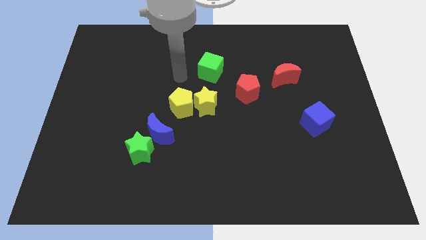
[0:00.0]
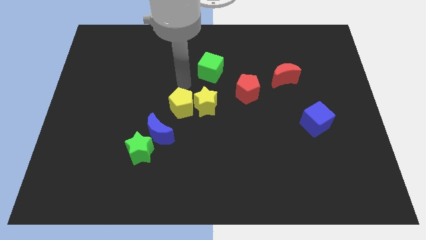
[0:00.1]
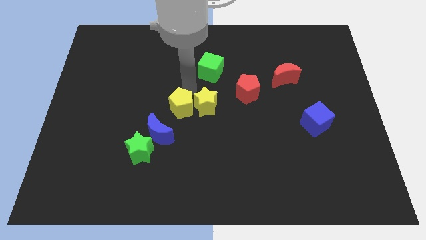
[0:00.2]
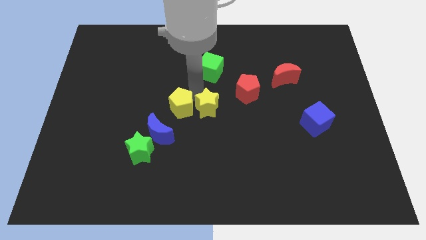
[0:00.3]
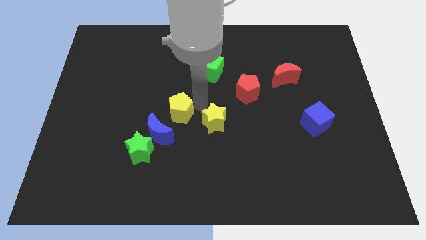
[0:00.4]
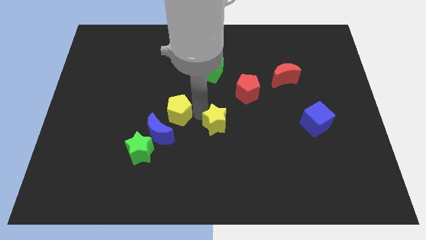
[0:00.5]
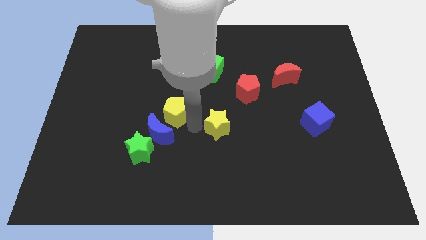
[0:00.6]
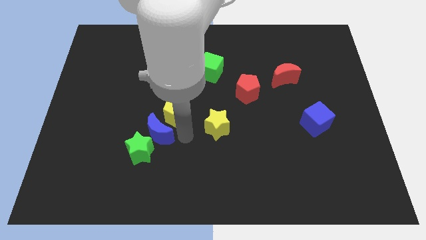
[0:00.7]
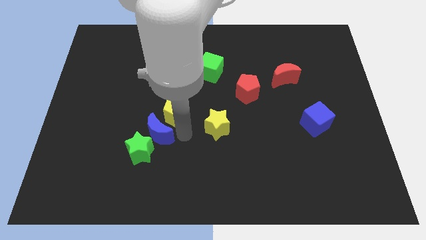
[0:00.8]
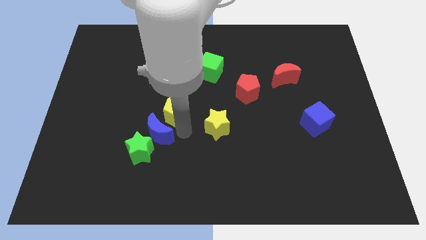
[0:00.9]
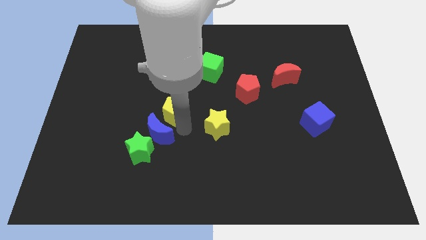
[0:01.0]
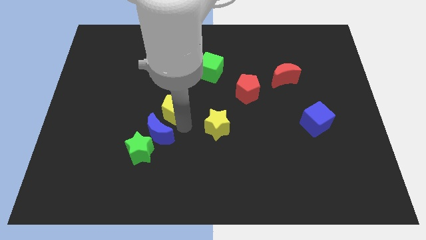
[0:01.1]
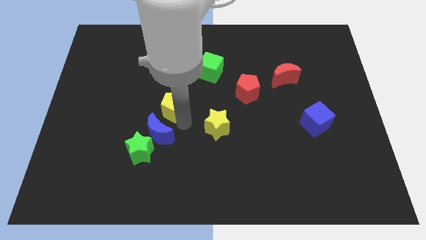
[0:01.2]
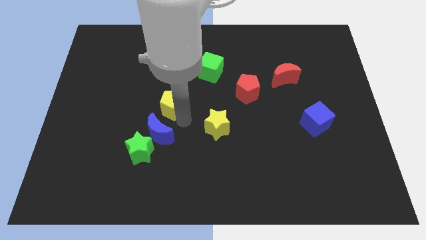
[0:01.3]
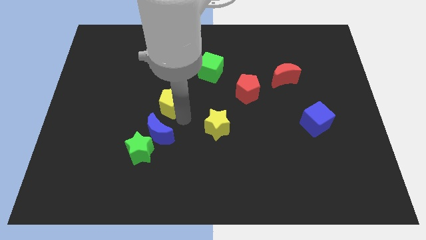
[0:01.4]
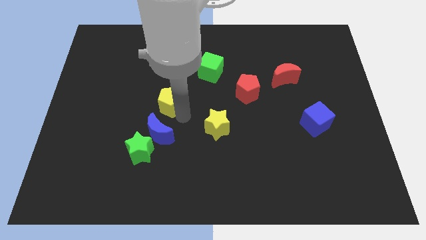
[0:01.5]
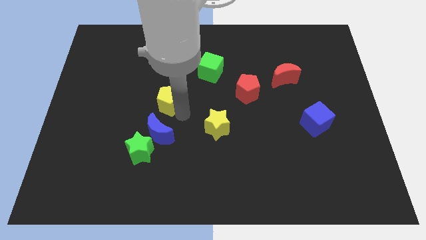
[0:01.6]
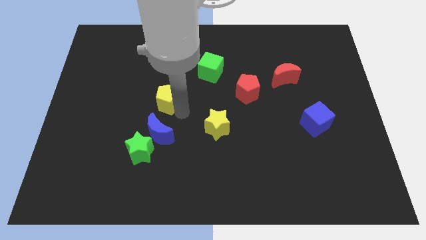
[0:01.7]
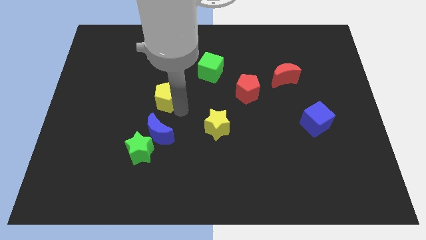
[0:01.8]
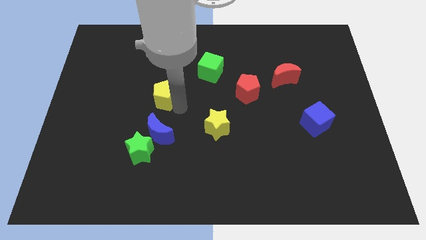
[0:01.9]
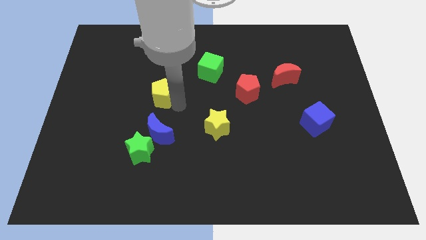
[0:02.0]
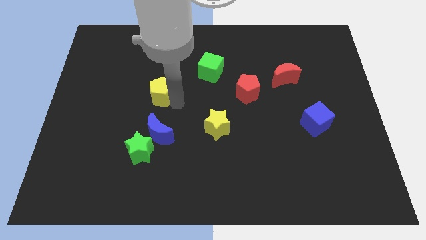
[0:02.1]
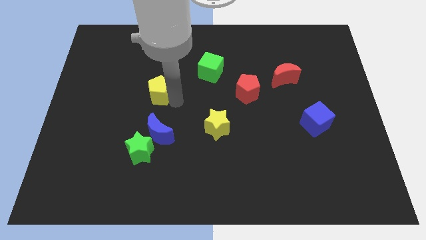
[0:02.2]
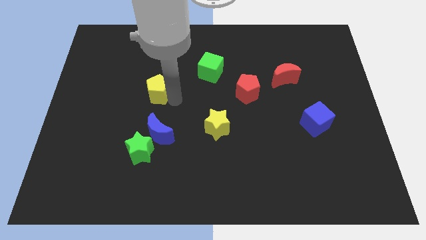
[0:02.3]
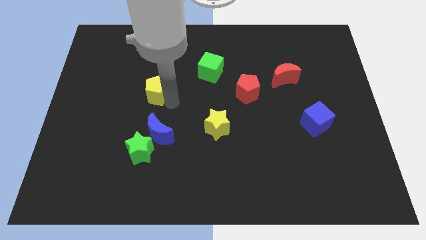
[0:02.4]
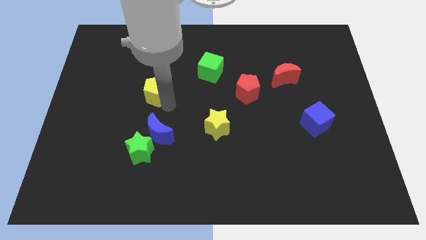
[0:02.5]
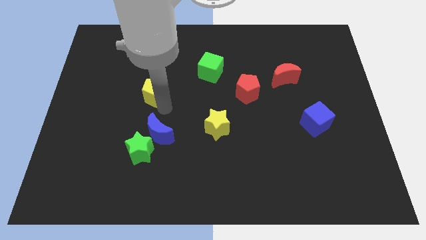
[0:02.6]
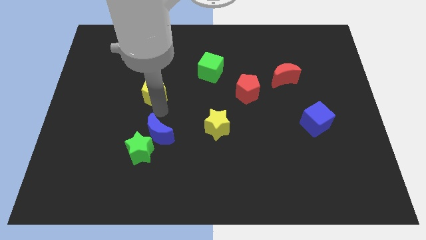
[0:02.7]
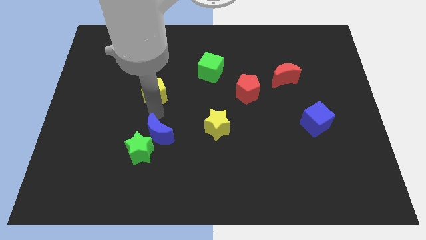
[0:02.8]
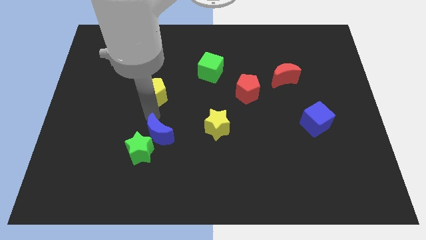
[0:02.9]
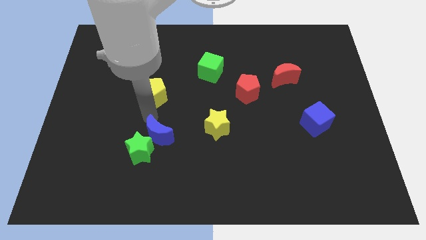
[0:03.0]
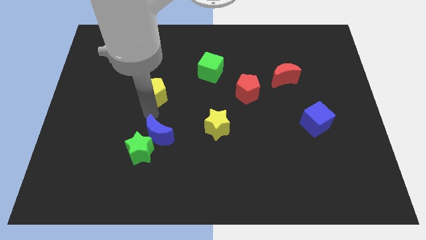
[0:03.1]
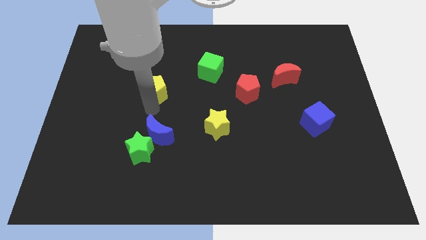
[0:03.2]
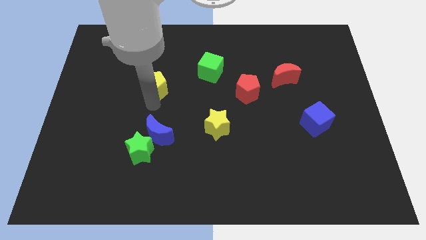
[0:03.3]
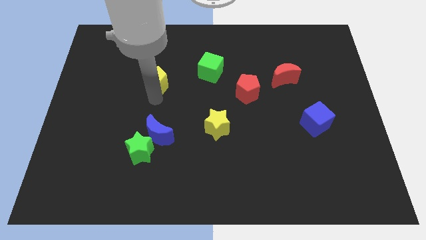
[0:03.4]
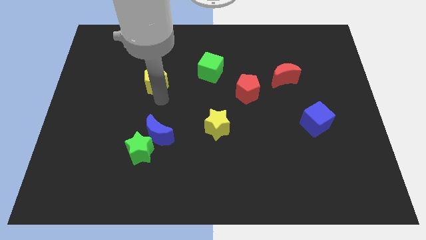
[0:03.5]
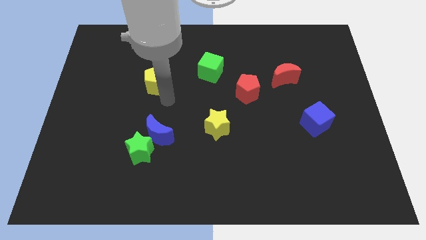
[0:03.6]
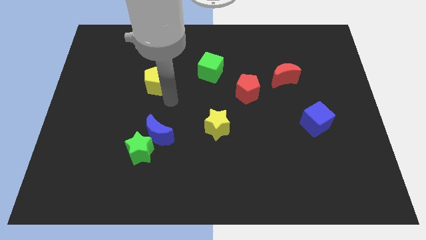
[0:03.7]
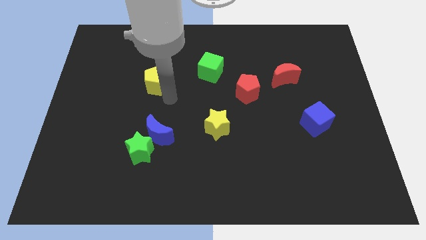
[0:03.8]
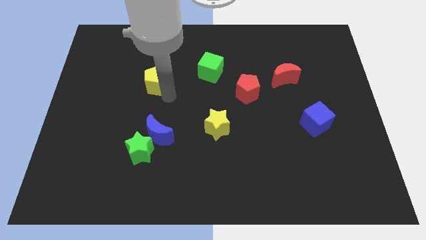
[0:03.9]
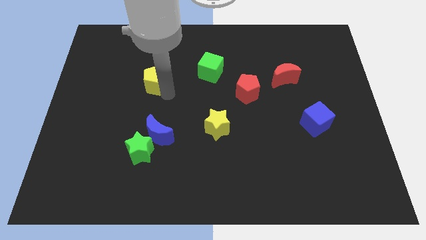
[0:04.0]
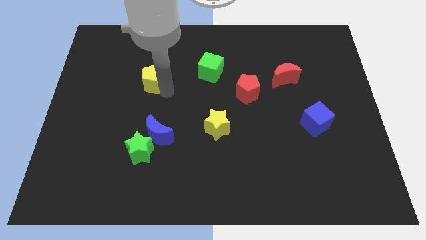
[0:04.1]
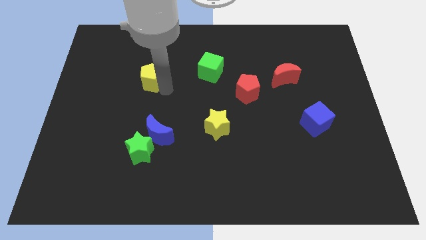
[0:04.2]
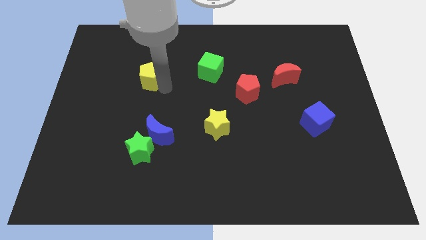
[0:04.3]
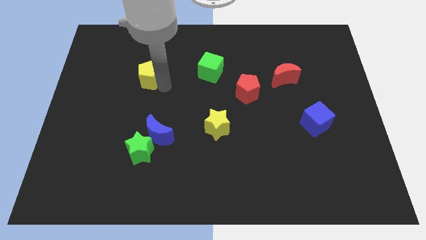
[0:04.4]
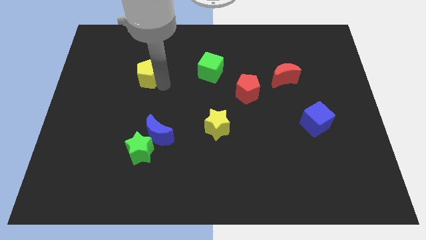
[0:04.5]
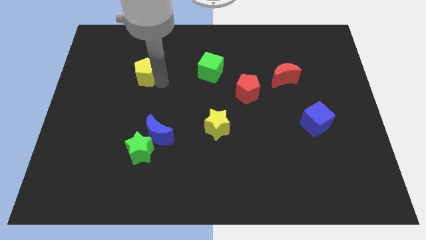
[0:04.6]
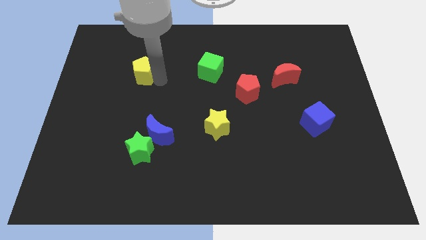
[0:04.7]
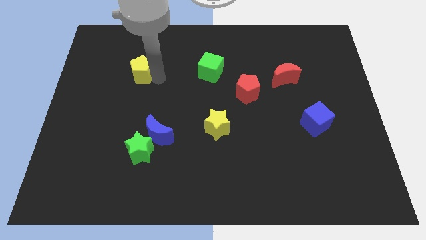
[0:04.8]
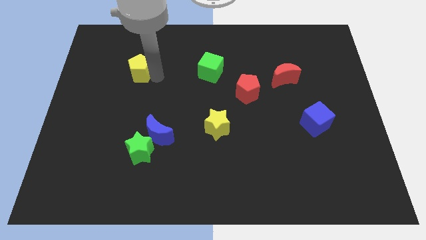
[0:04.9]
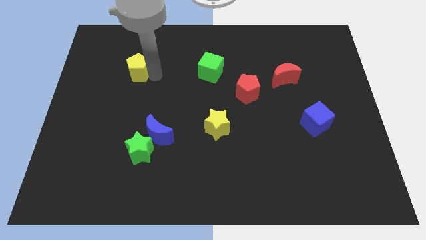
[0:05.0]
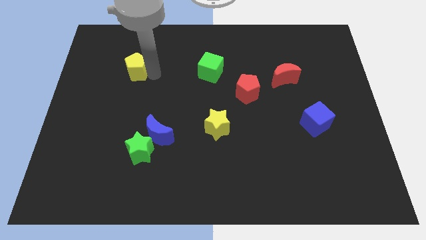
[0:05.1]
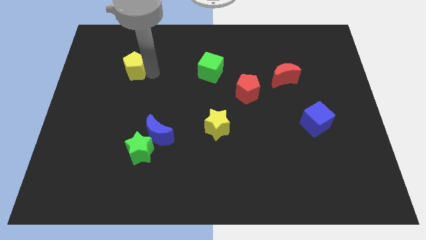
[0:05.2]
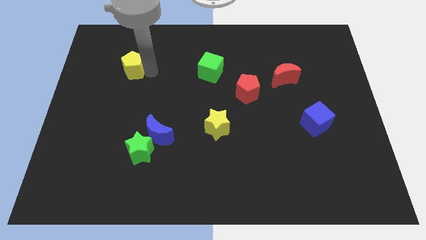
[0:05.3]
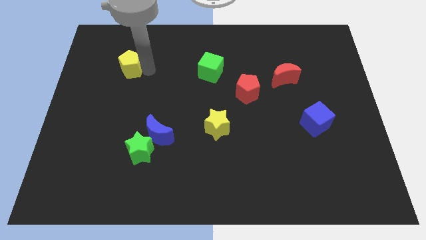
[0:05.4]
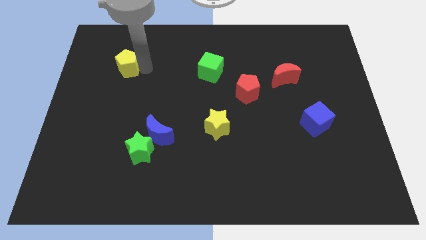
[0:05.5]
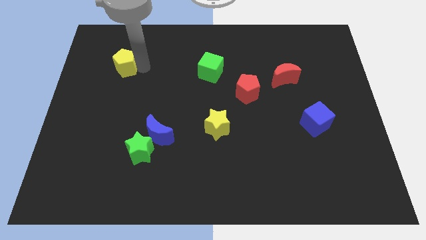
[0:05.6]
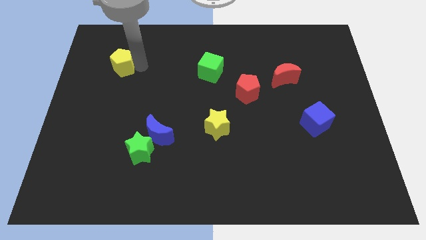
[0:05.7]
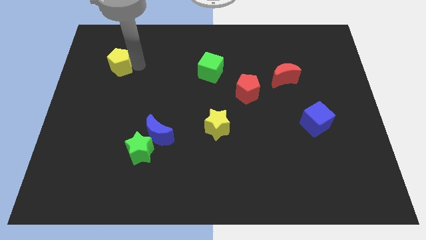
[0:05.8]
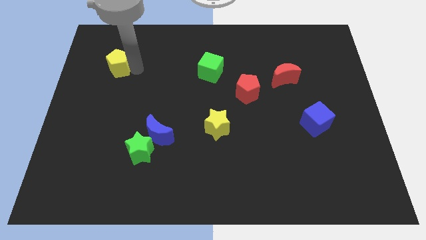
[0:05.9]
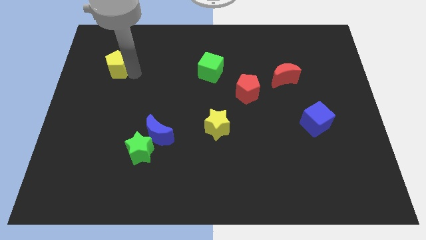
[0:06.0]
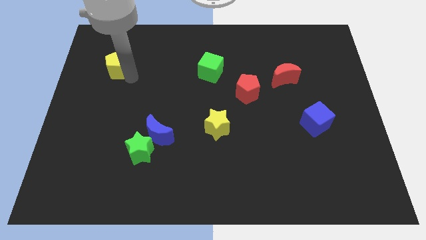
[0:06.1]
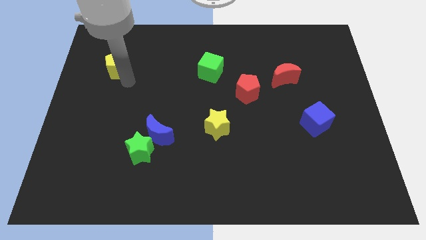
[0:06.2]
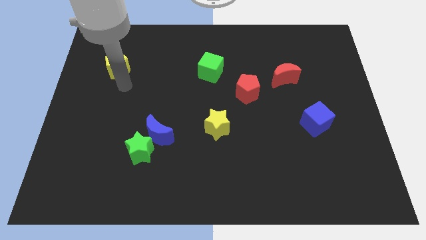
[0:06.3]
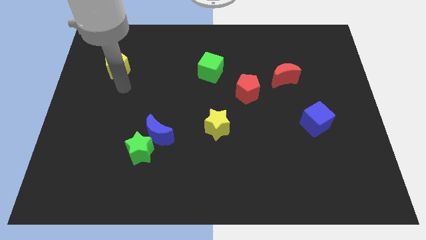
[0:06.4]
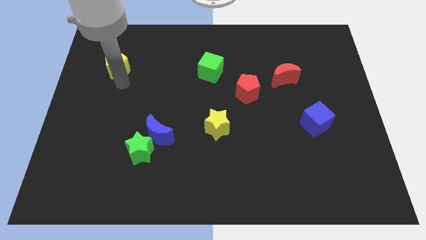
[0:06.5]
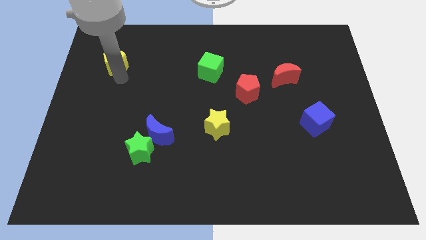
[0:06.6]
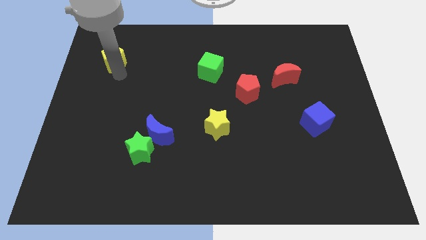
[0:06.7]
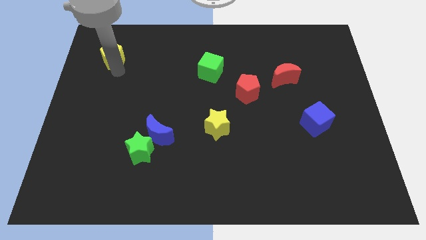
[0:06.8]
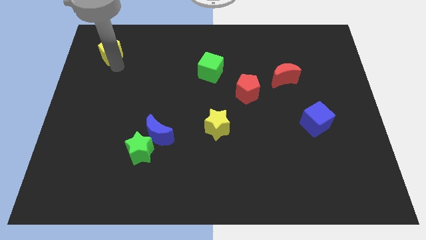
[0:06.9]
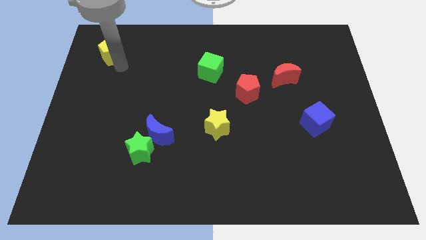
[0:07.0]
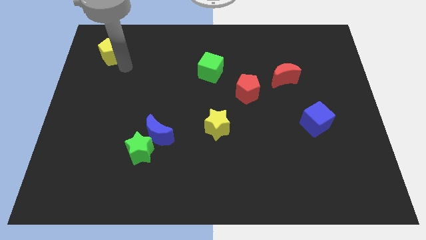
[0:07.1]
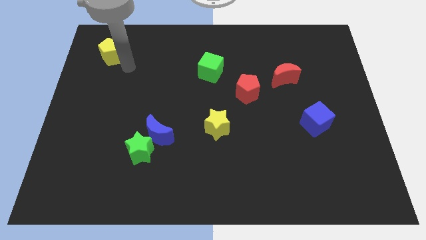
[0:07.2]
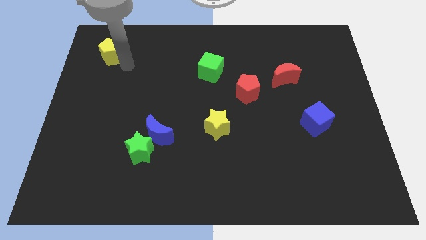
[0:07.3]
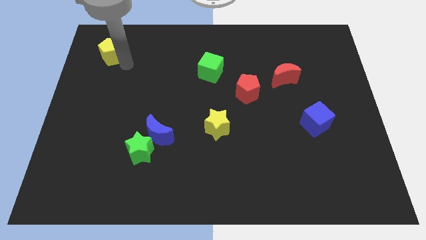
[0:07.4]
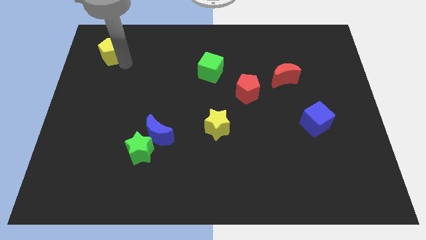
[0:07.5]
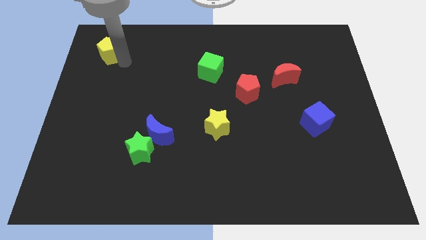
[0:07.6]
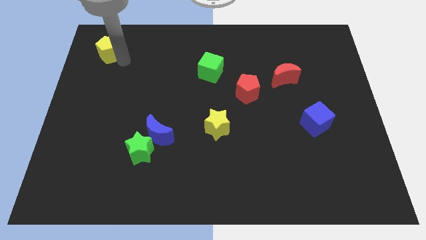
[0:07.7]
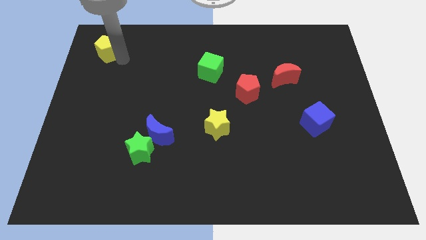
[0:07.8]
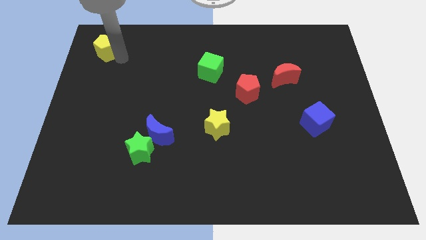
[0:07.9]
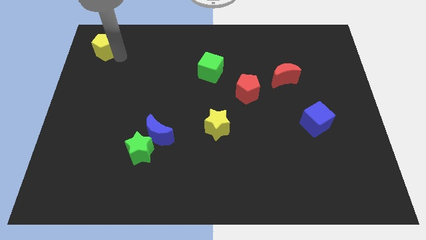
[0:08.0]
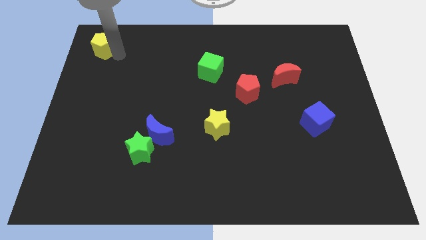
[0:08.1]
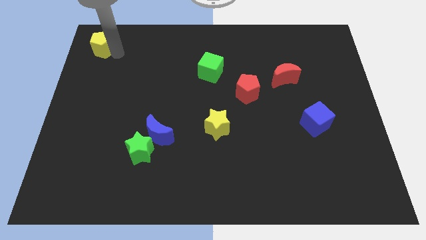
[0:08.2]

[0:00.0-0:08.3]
slide the yellow pentagon to the upper left corner
